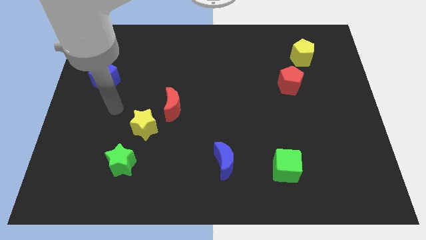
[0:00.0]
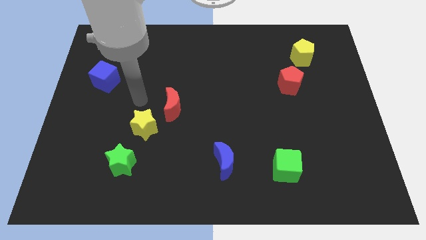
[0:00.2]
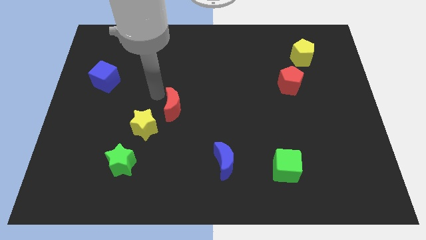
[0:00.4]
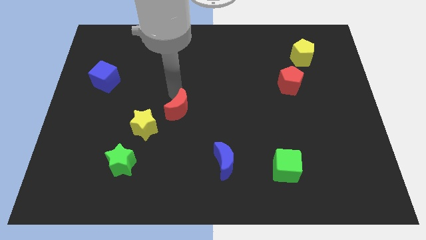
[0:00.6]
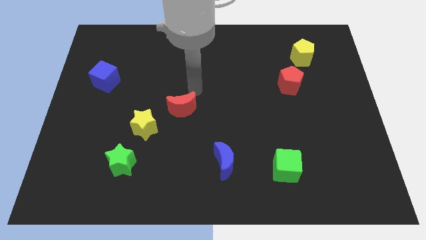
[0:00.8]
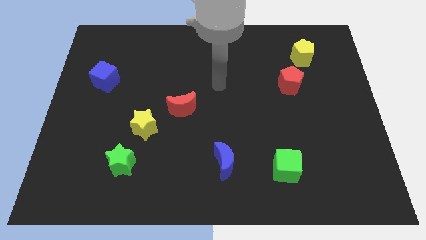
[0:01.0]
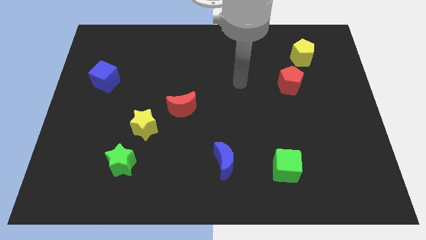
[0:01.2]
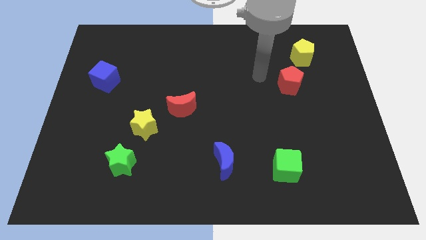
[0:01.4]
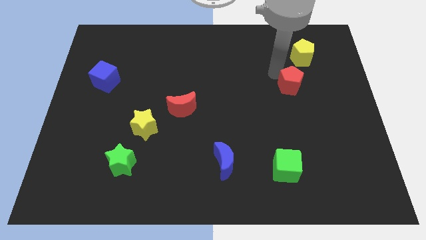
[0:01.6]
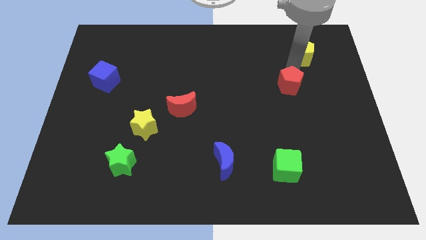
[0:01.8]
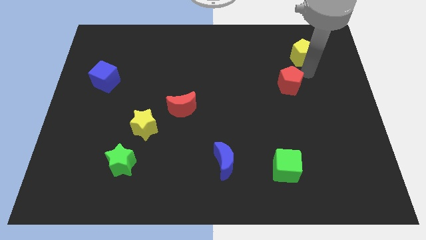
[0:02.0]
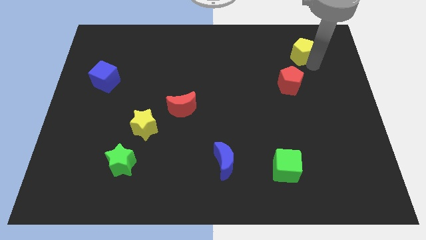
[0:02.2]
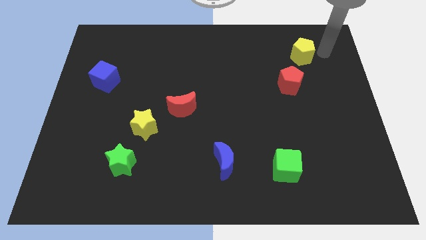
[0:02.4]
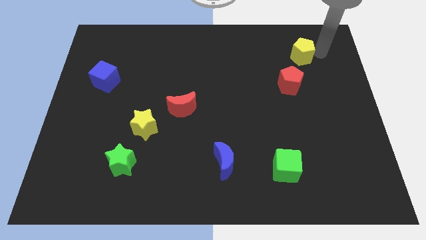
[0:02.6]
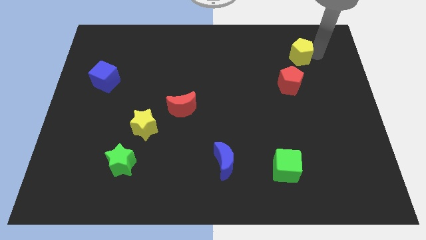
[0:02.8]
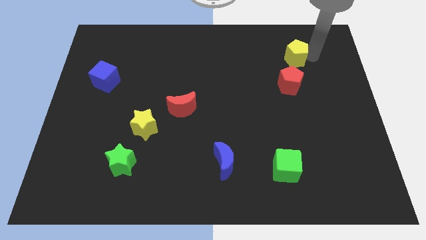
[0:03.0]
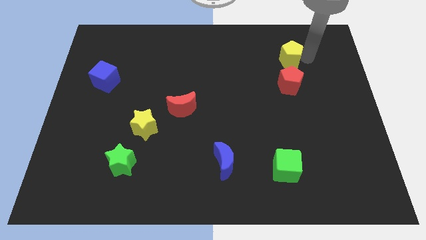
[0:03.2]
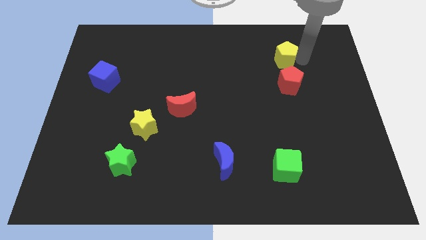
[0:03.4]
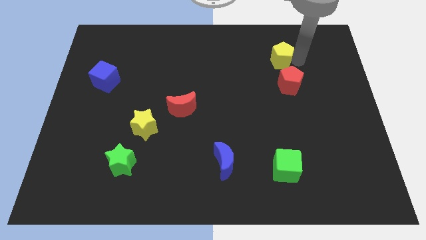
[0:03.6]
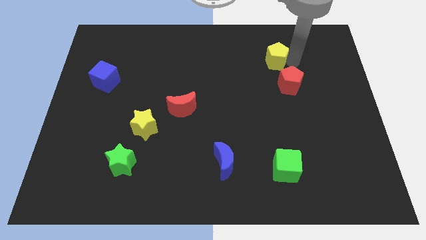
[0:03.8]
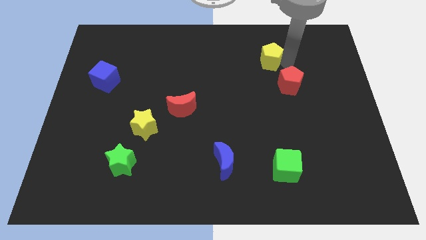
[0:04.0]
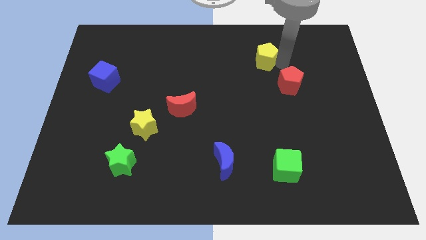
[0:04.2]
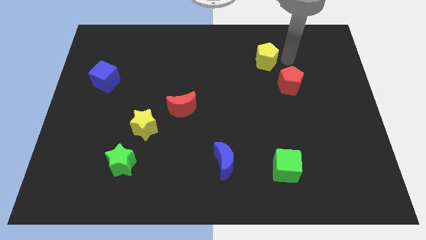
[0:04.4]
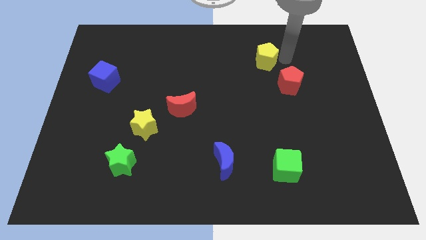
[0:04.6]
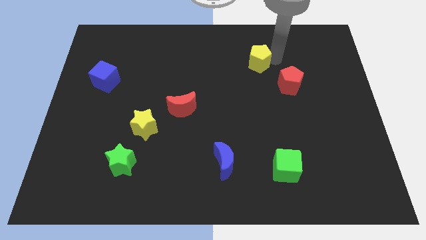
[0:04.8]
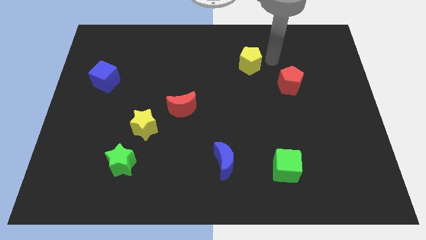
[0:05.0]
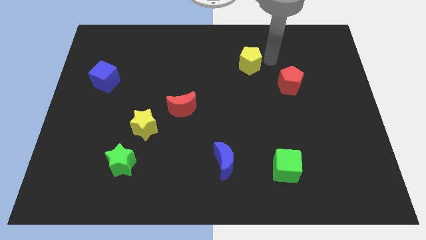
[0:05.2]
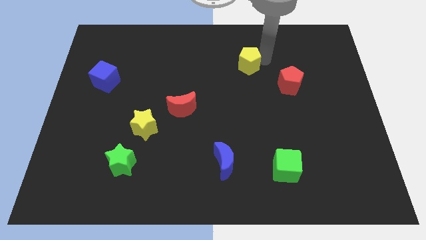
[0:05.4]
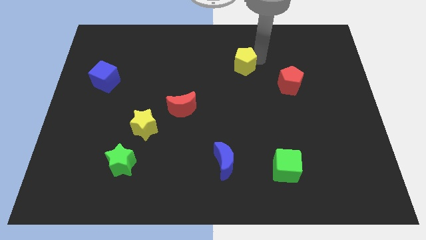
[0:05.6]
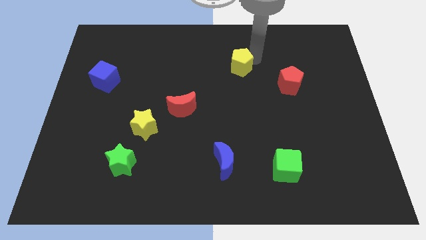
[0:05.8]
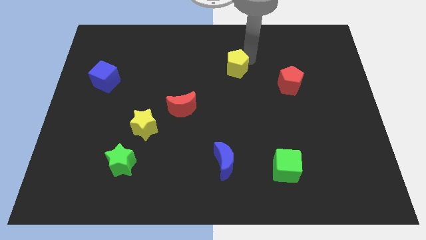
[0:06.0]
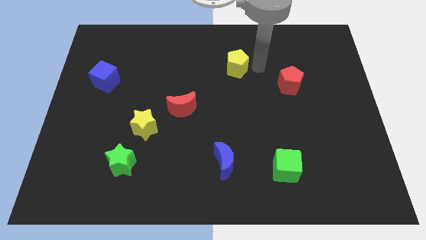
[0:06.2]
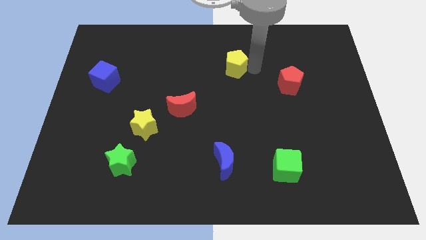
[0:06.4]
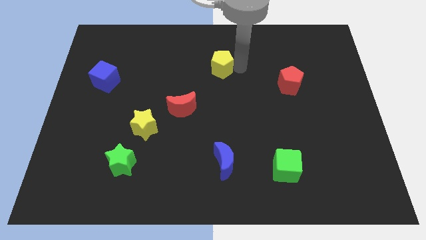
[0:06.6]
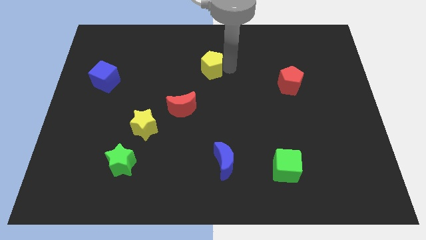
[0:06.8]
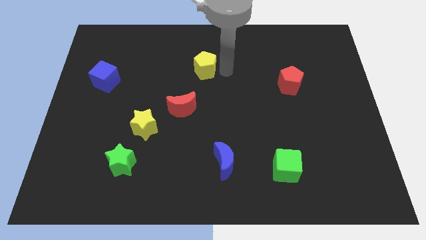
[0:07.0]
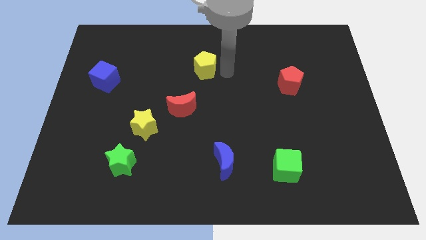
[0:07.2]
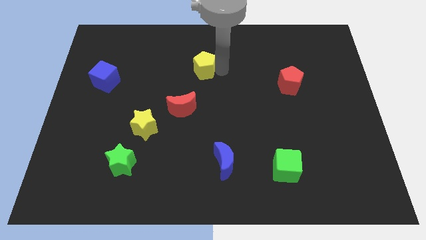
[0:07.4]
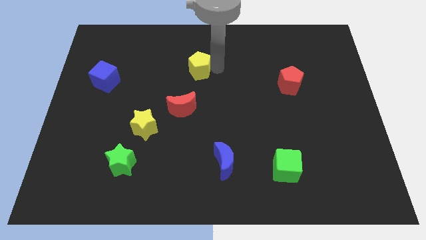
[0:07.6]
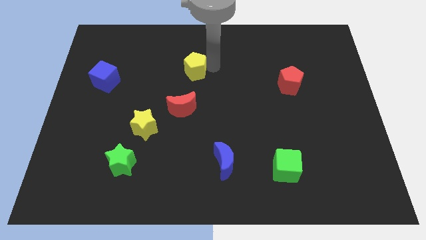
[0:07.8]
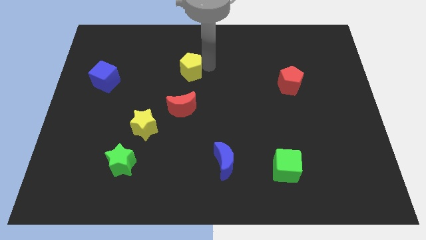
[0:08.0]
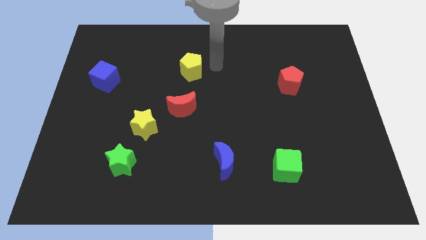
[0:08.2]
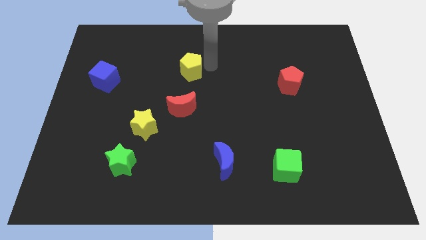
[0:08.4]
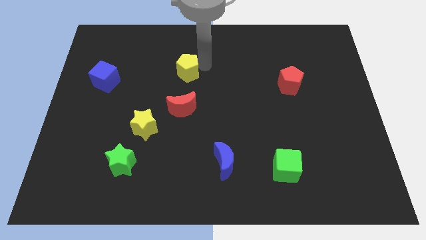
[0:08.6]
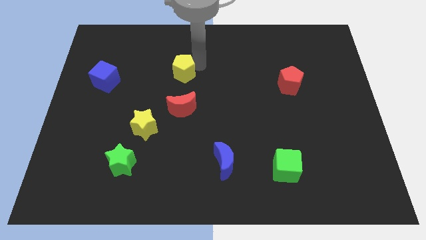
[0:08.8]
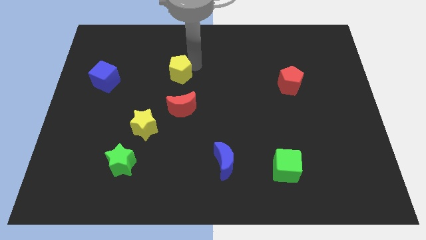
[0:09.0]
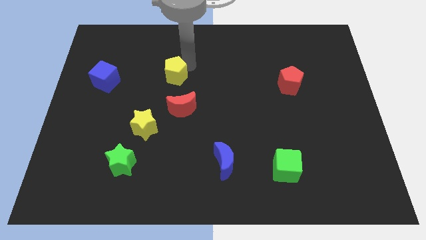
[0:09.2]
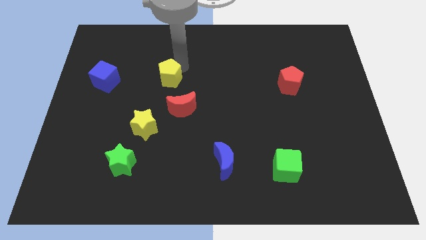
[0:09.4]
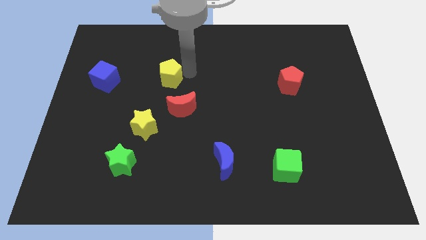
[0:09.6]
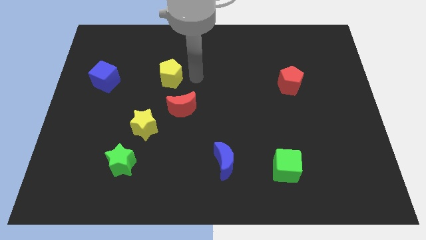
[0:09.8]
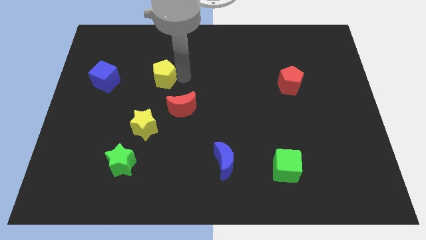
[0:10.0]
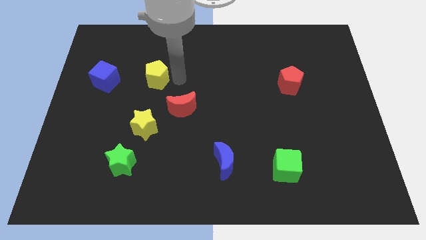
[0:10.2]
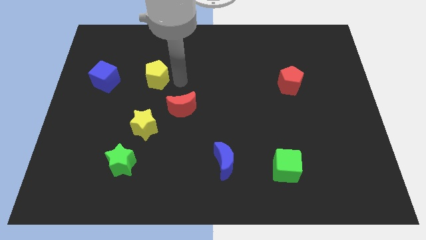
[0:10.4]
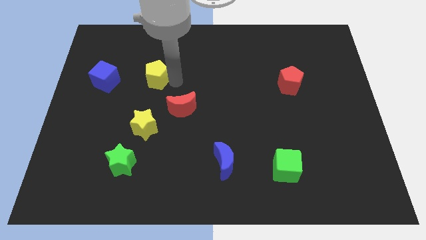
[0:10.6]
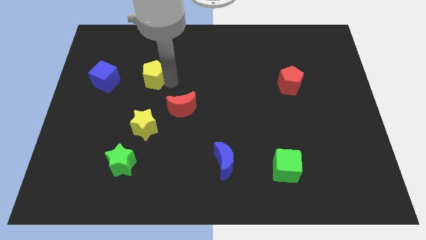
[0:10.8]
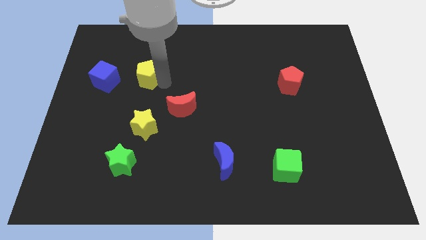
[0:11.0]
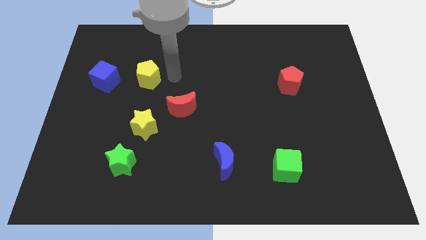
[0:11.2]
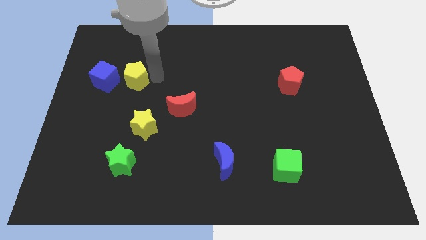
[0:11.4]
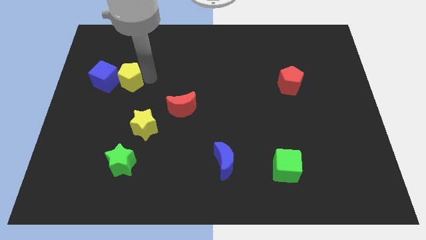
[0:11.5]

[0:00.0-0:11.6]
move the yellow pentagon towards the blue cube

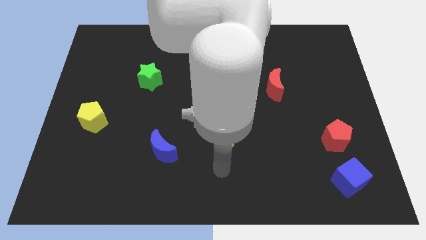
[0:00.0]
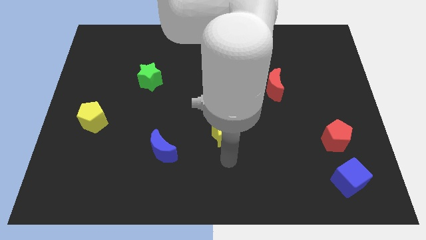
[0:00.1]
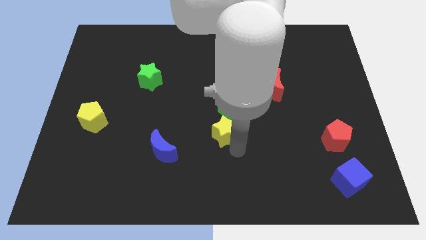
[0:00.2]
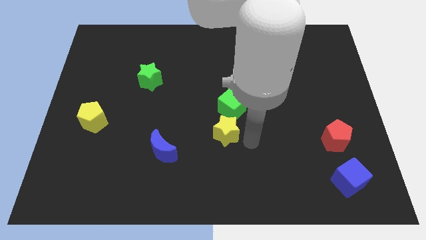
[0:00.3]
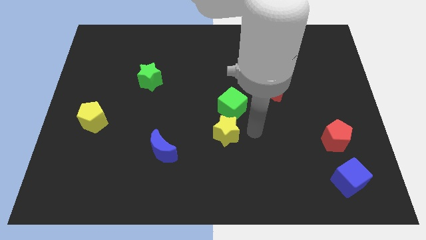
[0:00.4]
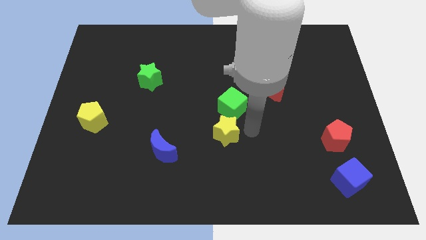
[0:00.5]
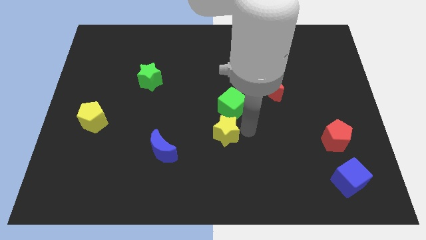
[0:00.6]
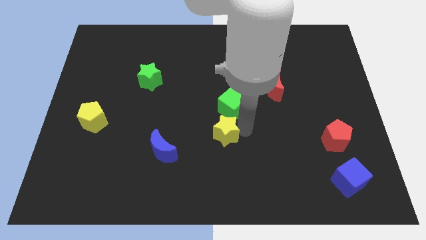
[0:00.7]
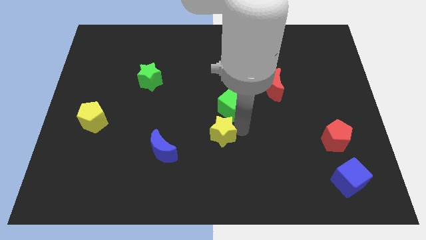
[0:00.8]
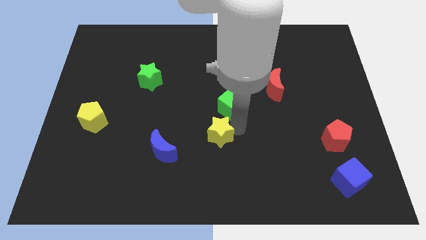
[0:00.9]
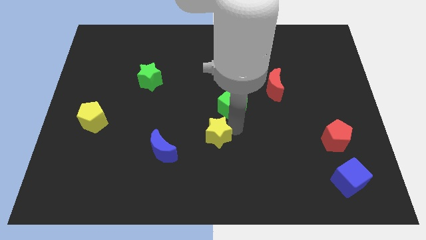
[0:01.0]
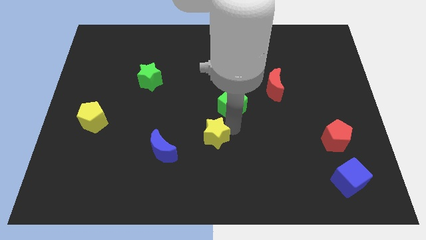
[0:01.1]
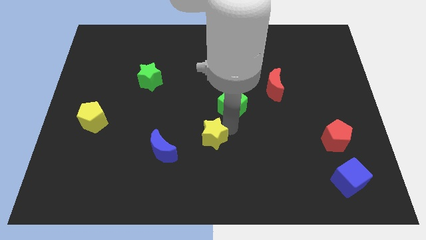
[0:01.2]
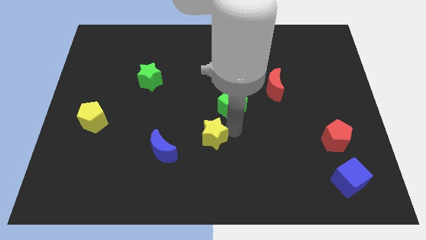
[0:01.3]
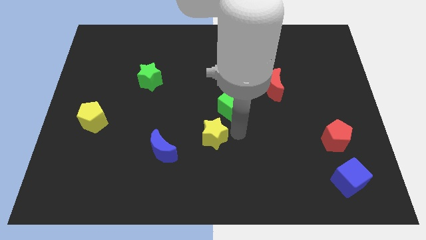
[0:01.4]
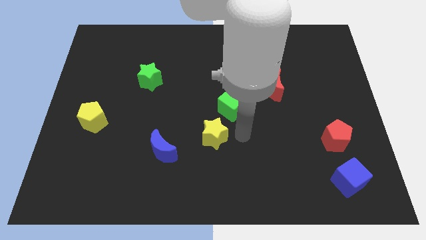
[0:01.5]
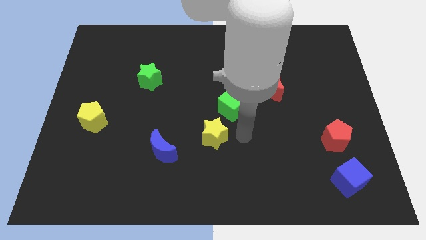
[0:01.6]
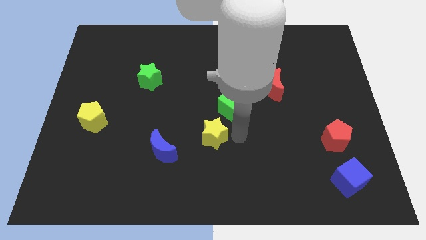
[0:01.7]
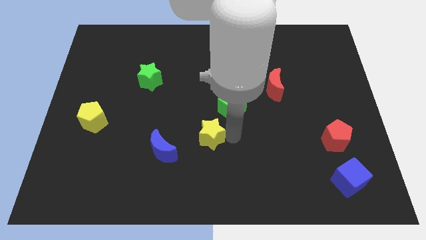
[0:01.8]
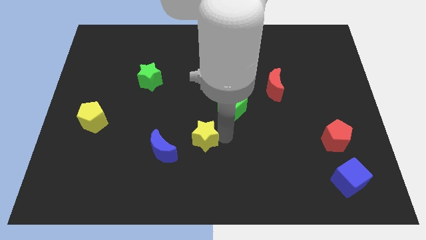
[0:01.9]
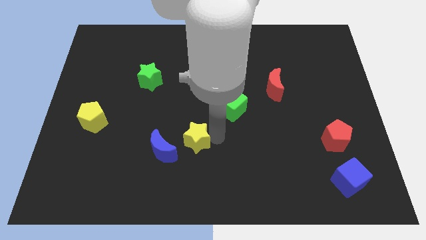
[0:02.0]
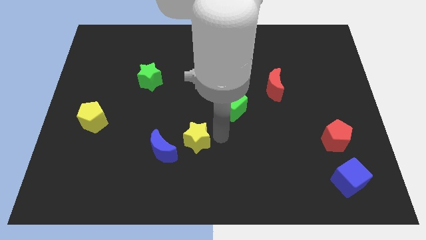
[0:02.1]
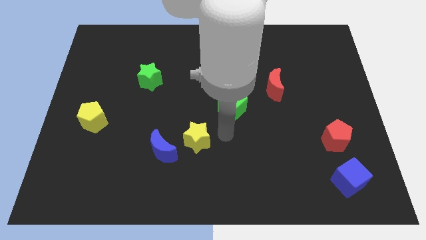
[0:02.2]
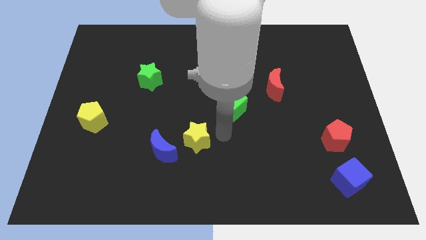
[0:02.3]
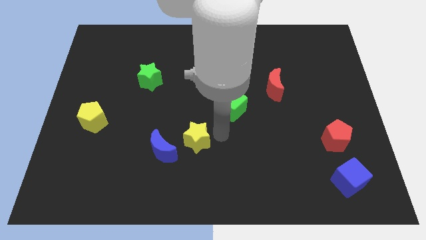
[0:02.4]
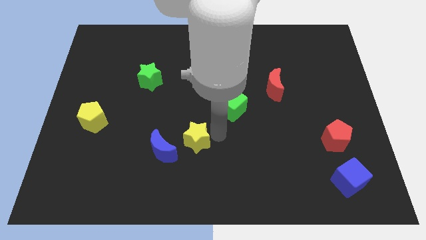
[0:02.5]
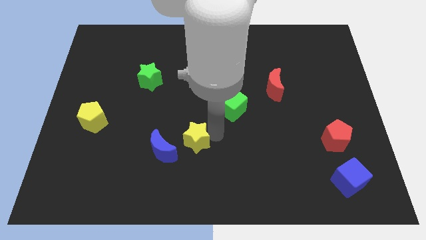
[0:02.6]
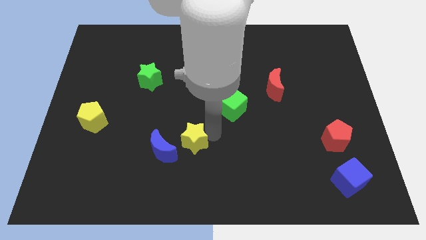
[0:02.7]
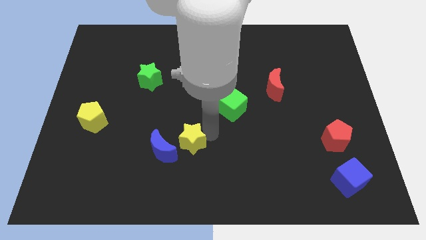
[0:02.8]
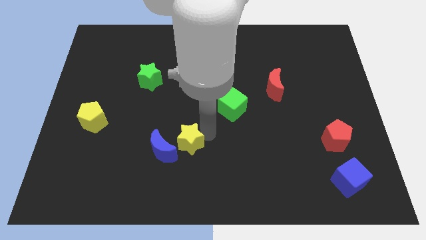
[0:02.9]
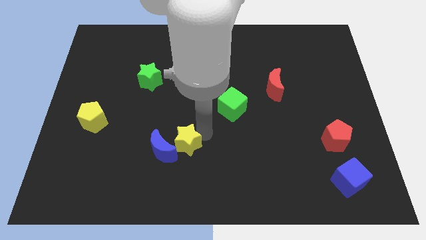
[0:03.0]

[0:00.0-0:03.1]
put the yellow star next to the blue moon
